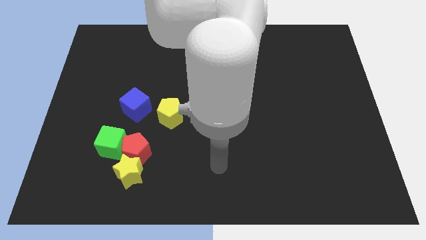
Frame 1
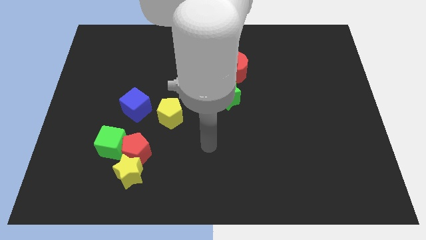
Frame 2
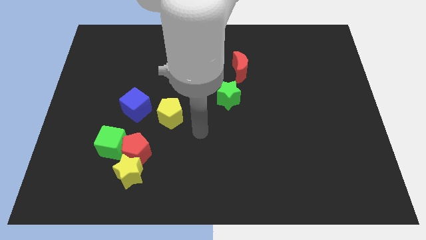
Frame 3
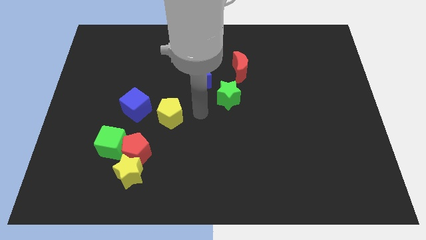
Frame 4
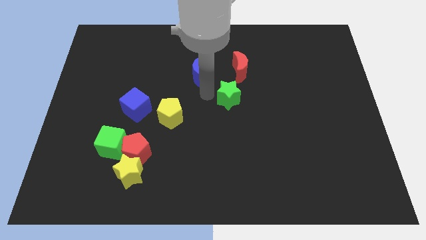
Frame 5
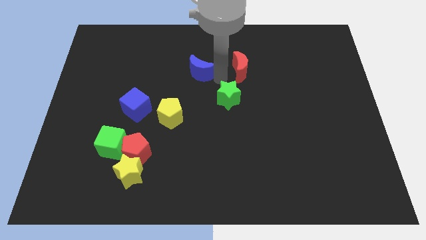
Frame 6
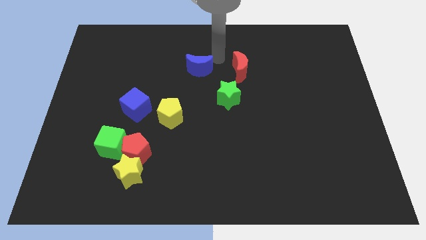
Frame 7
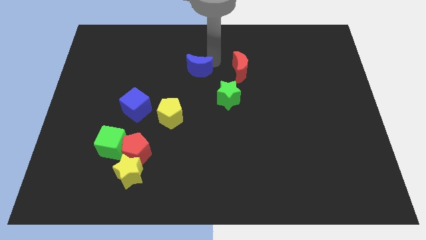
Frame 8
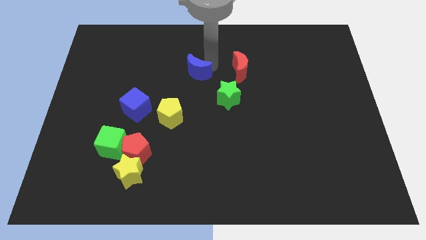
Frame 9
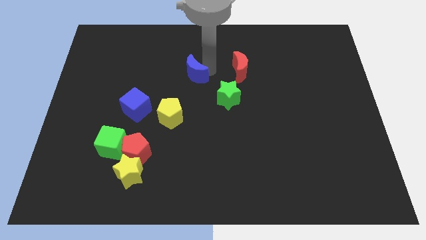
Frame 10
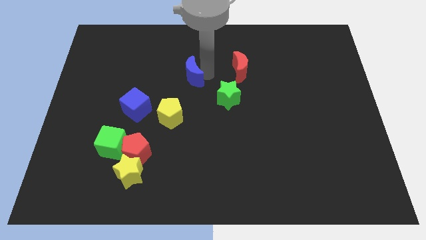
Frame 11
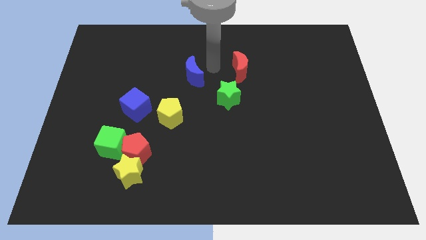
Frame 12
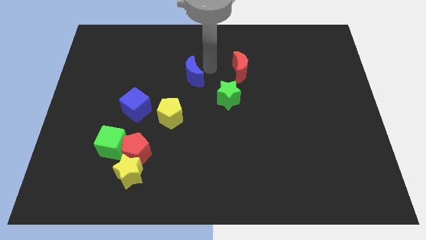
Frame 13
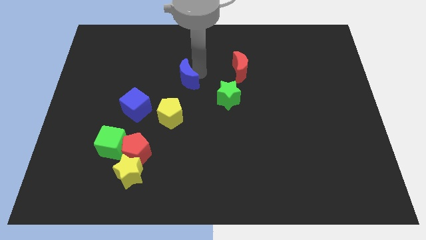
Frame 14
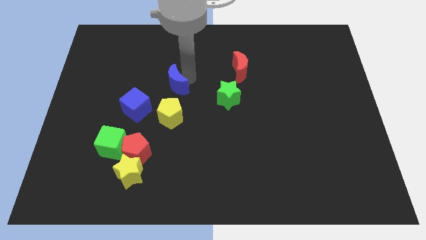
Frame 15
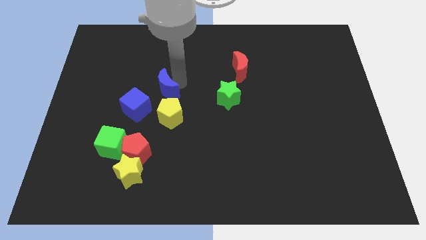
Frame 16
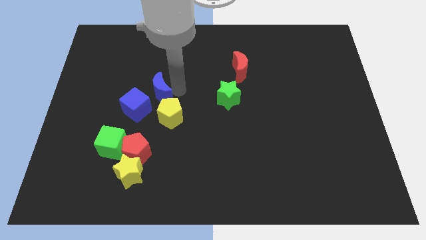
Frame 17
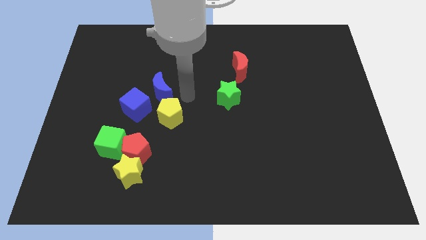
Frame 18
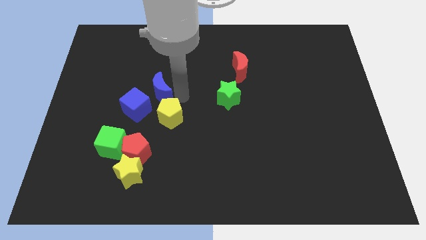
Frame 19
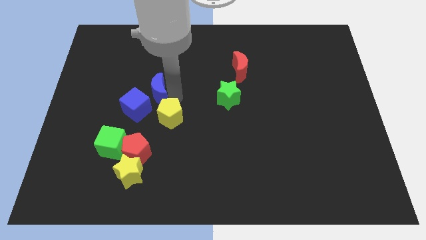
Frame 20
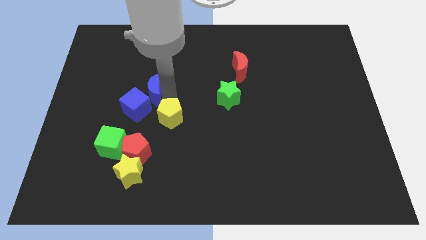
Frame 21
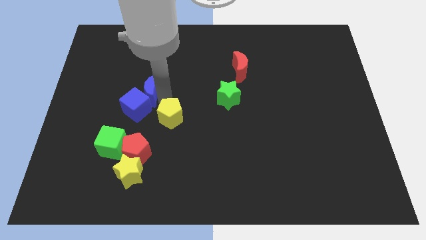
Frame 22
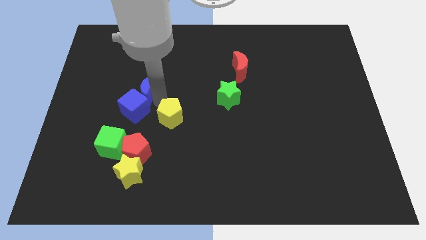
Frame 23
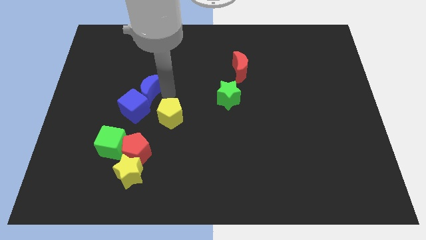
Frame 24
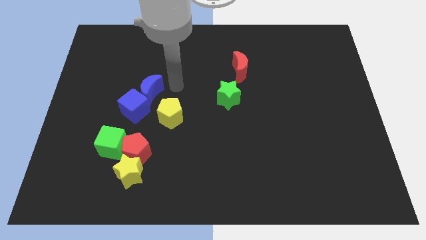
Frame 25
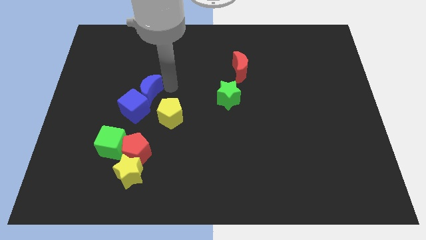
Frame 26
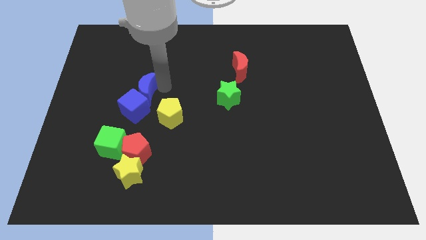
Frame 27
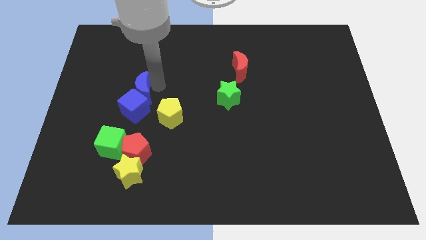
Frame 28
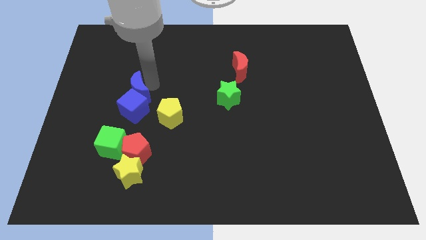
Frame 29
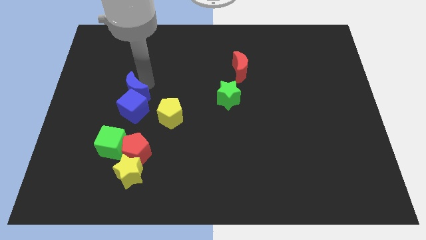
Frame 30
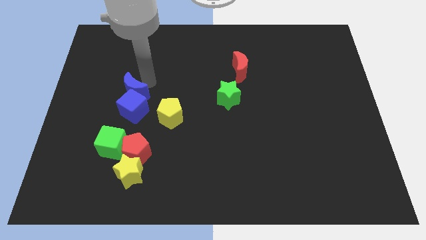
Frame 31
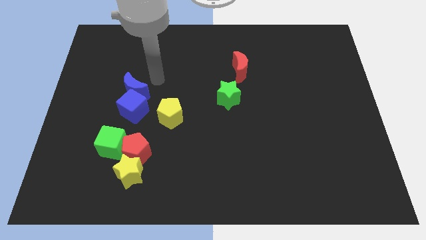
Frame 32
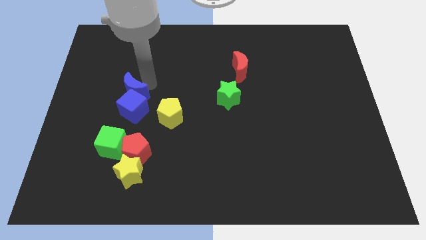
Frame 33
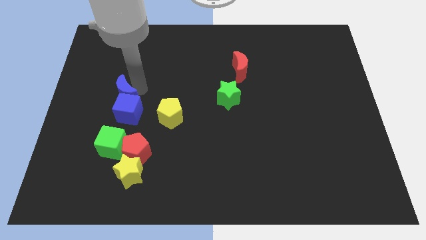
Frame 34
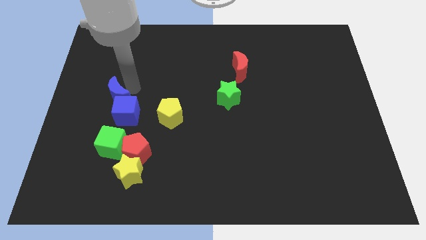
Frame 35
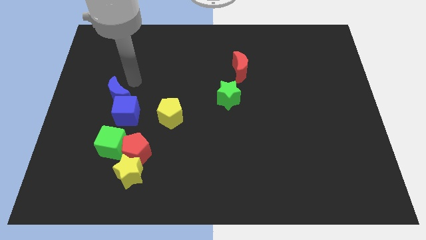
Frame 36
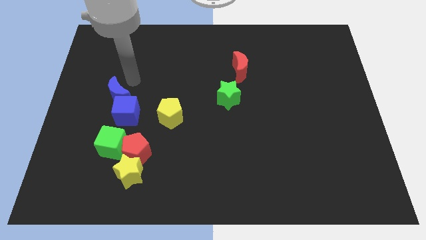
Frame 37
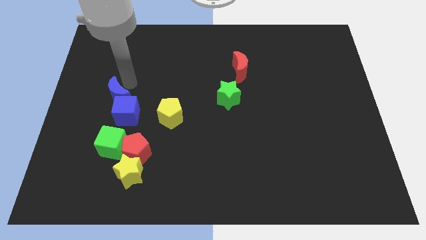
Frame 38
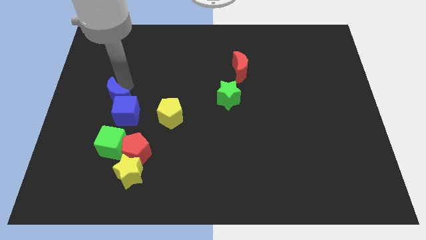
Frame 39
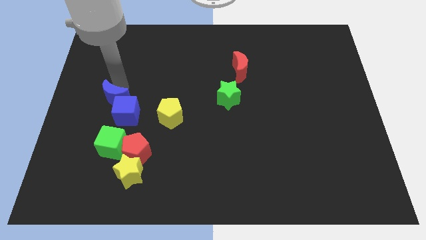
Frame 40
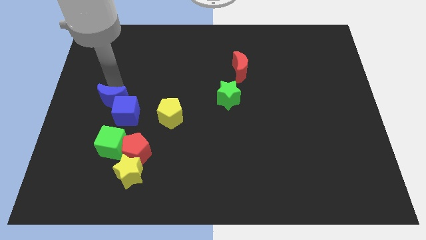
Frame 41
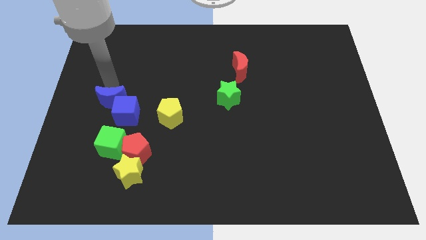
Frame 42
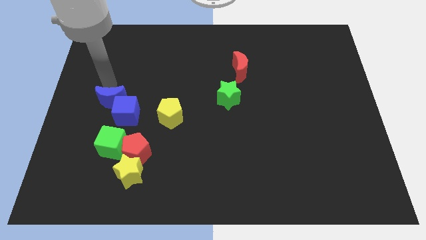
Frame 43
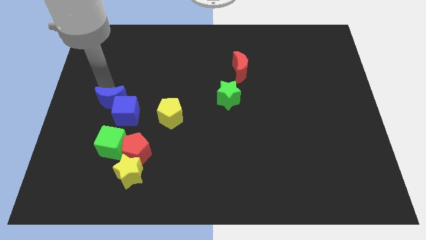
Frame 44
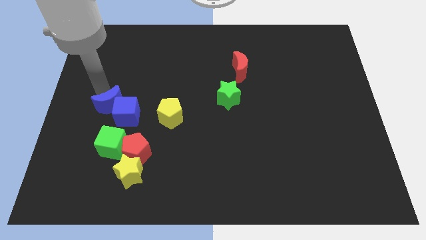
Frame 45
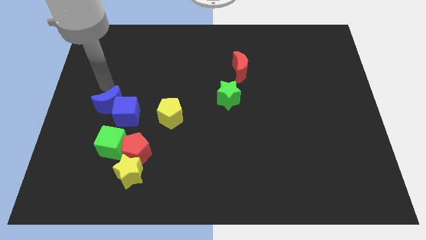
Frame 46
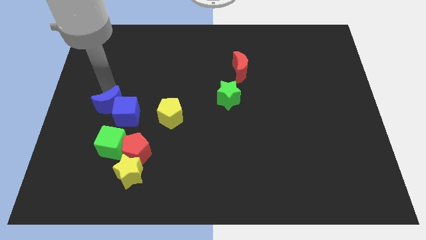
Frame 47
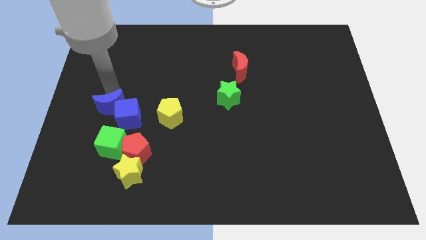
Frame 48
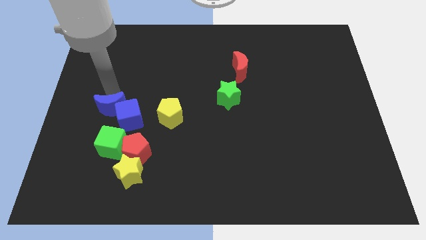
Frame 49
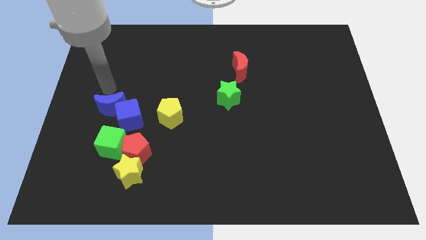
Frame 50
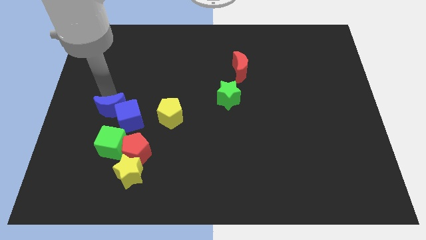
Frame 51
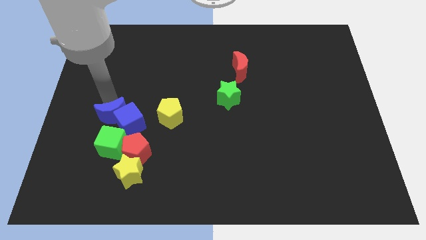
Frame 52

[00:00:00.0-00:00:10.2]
slide the blue moon to the top left side of the red pentagon

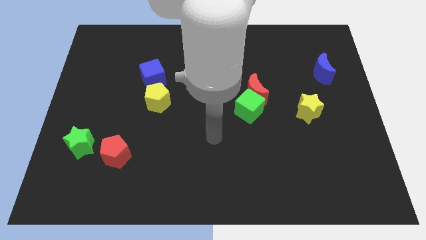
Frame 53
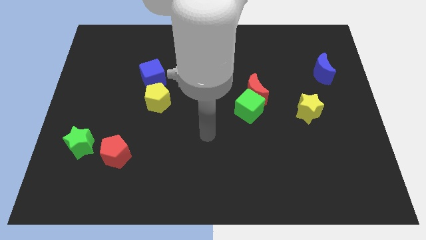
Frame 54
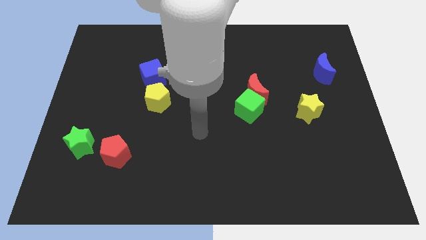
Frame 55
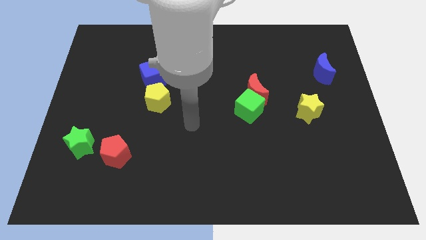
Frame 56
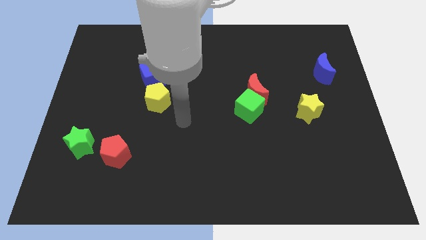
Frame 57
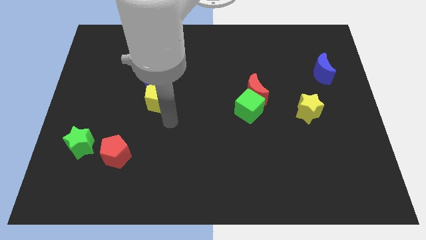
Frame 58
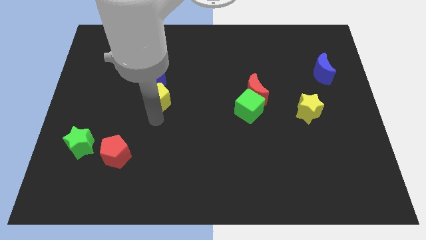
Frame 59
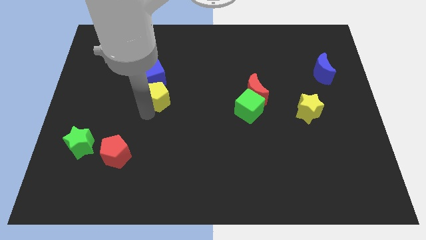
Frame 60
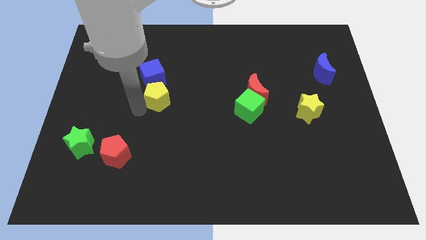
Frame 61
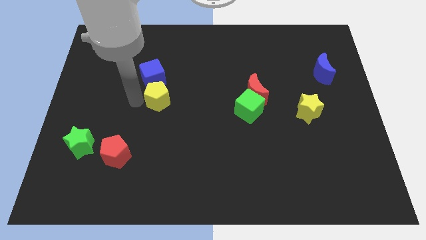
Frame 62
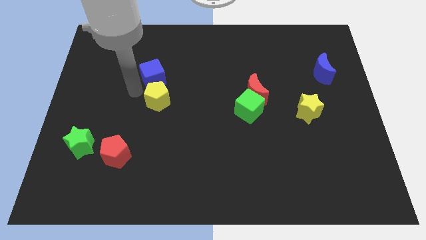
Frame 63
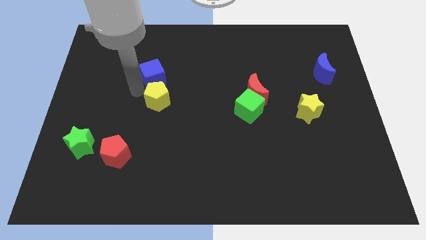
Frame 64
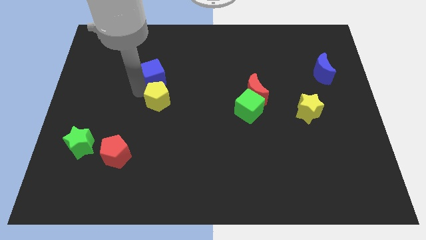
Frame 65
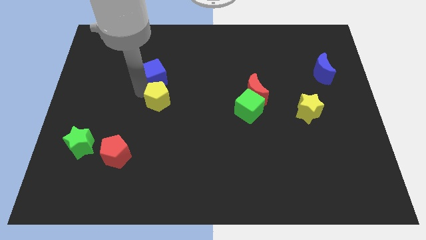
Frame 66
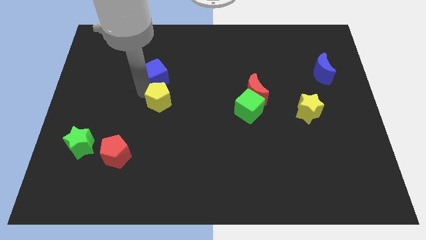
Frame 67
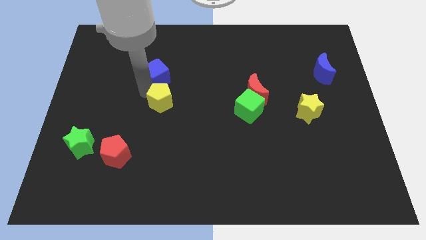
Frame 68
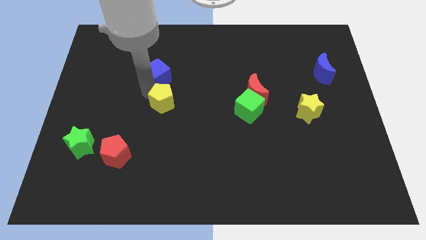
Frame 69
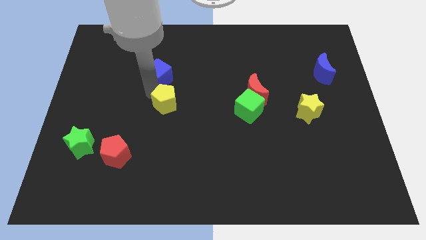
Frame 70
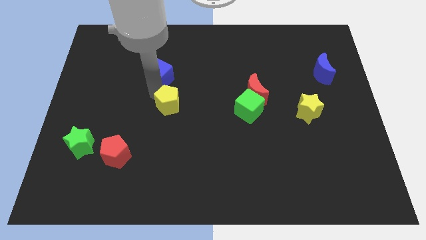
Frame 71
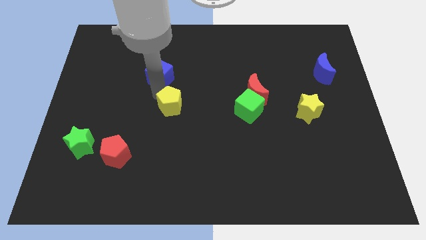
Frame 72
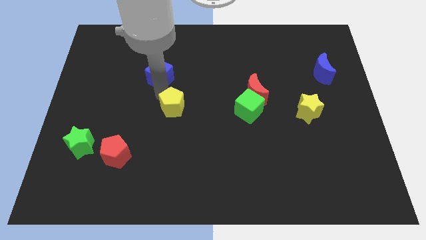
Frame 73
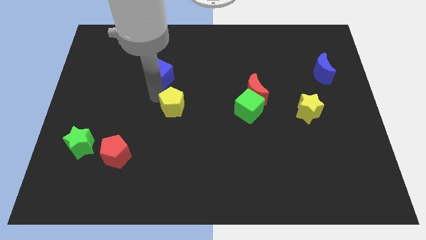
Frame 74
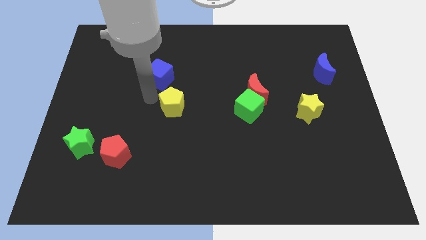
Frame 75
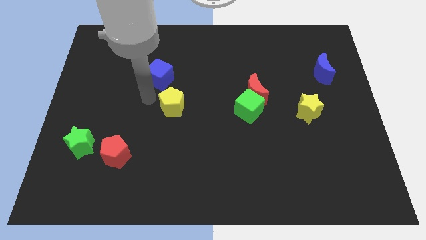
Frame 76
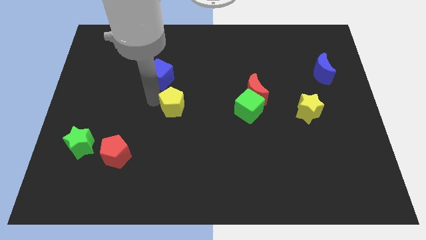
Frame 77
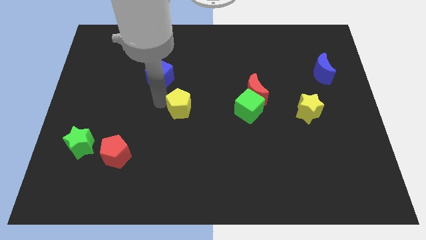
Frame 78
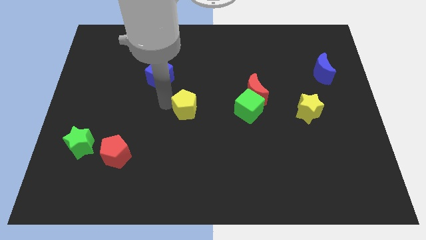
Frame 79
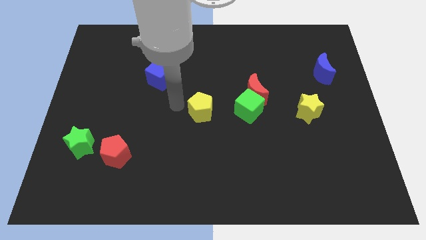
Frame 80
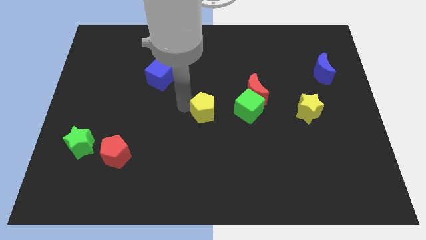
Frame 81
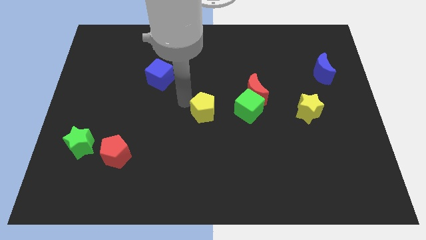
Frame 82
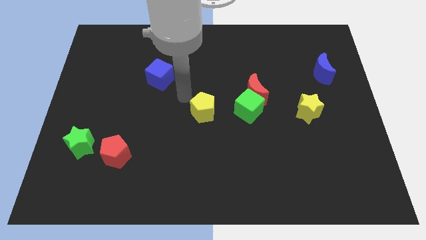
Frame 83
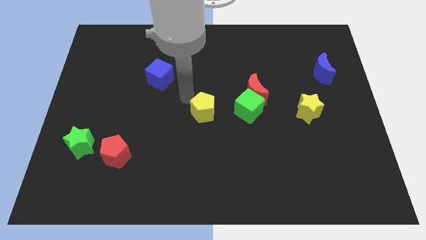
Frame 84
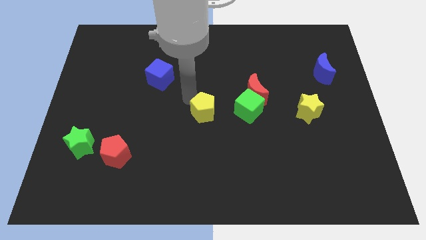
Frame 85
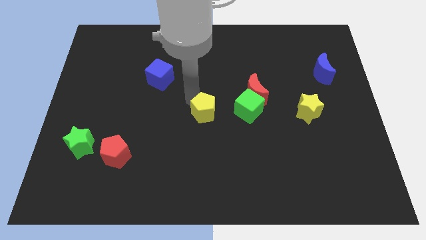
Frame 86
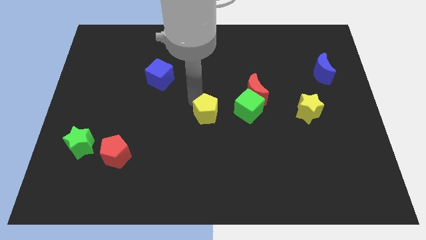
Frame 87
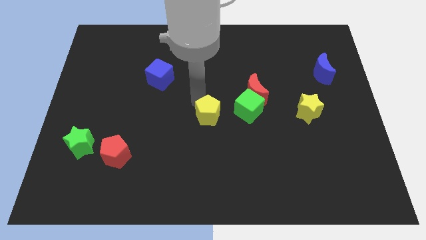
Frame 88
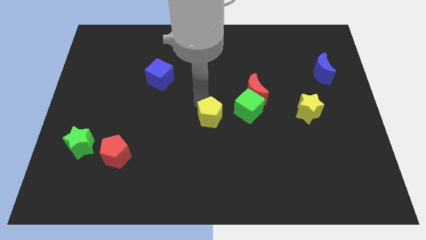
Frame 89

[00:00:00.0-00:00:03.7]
put the yellow pentagon diagonally down and to the left of the green cube
